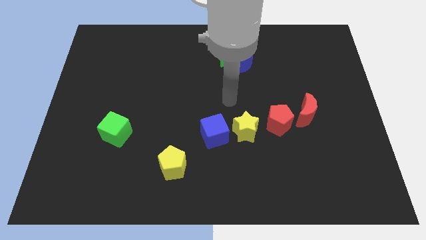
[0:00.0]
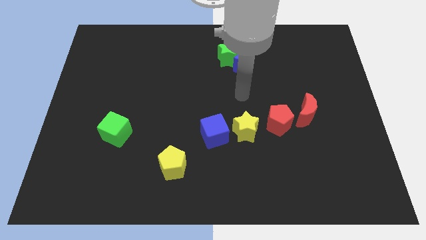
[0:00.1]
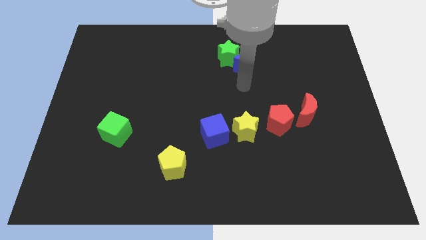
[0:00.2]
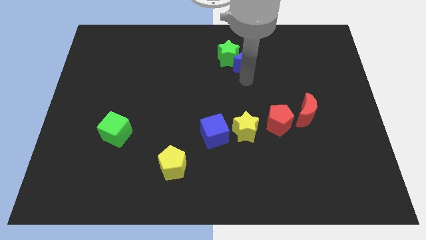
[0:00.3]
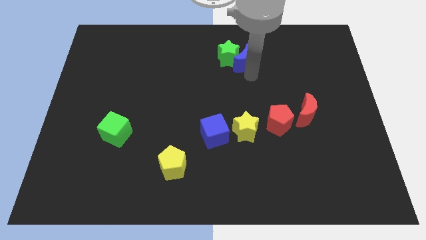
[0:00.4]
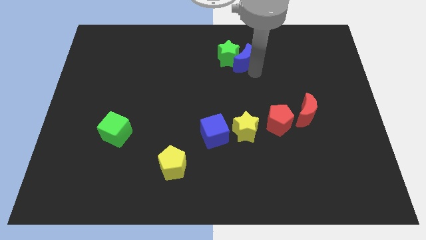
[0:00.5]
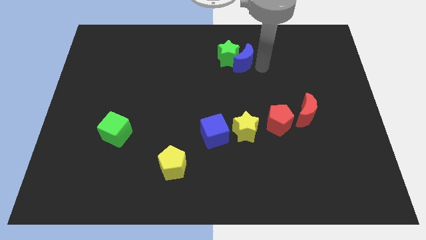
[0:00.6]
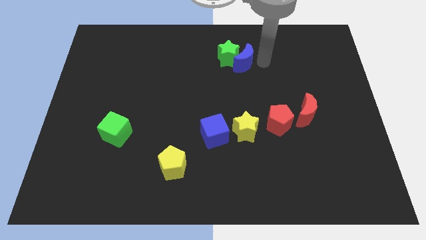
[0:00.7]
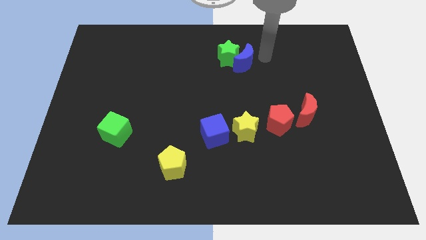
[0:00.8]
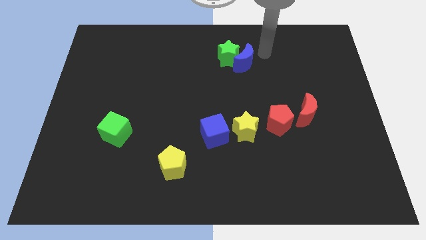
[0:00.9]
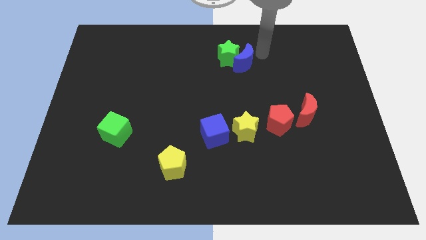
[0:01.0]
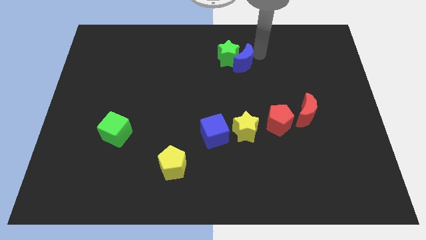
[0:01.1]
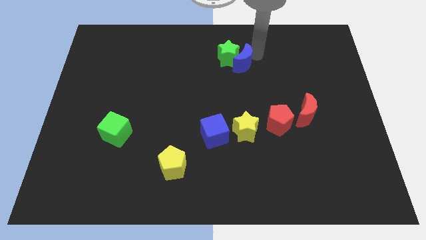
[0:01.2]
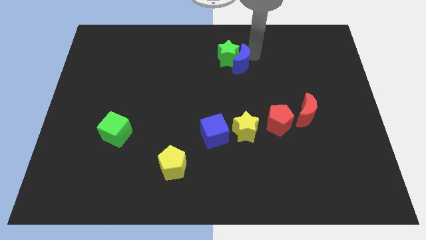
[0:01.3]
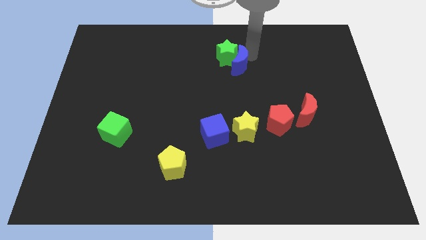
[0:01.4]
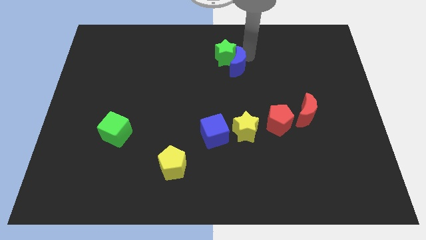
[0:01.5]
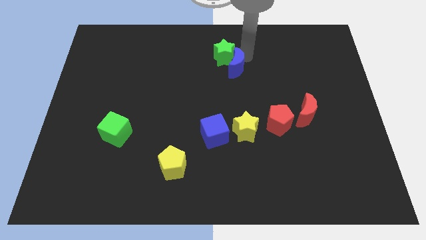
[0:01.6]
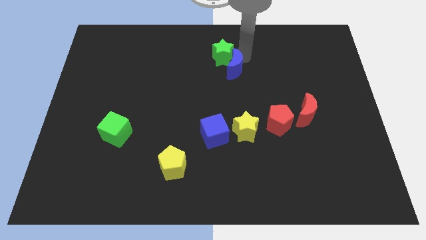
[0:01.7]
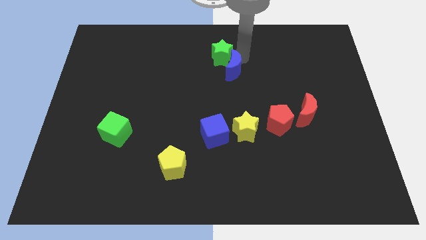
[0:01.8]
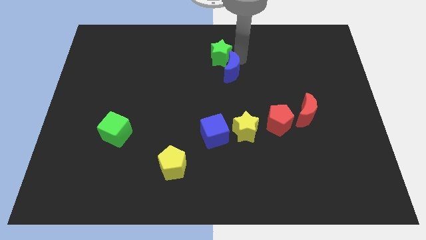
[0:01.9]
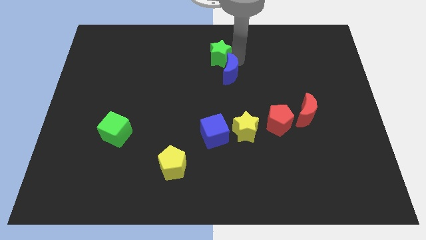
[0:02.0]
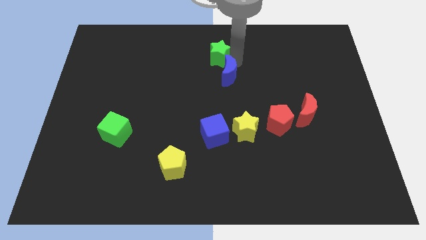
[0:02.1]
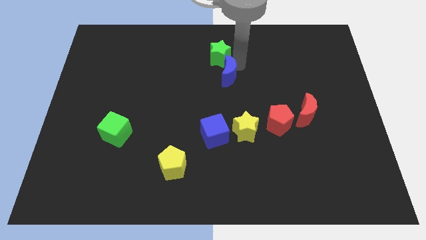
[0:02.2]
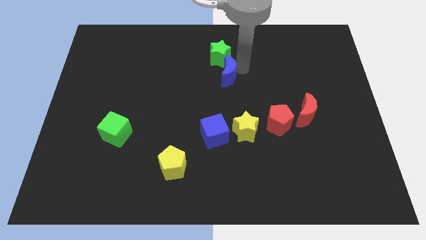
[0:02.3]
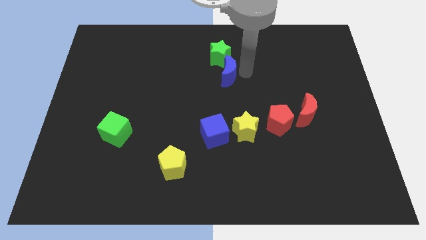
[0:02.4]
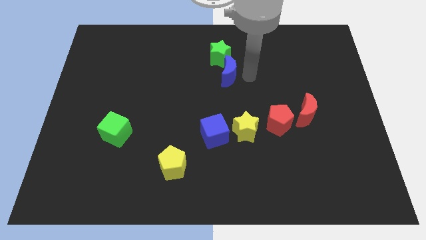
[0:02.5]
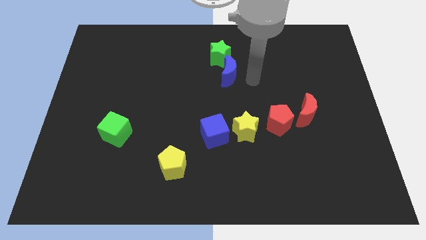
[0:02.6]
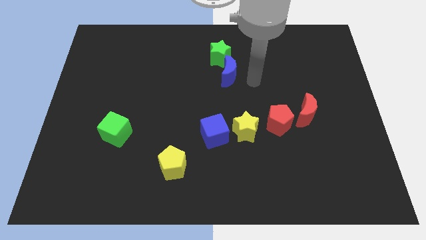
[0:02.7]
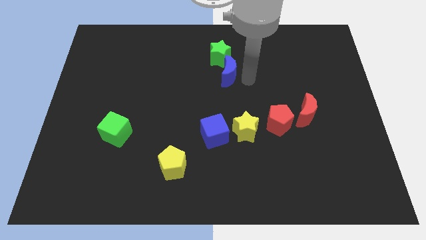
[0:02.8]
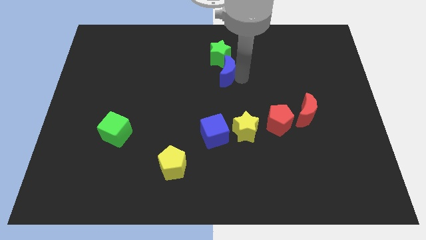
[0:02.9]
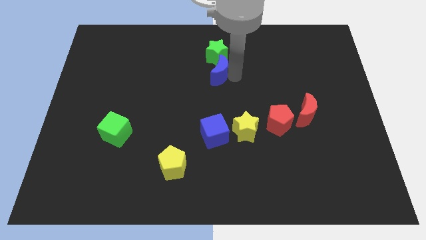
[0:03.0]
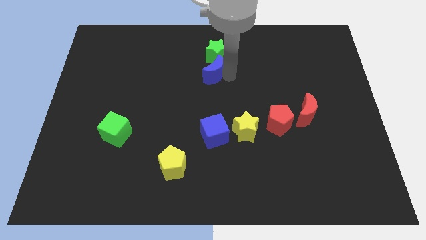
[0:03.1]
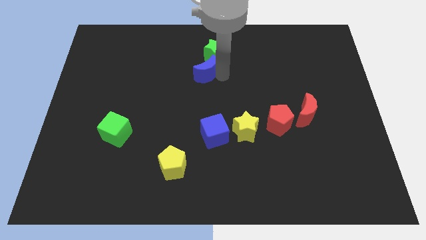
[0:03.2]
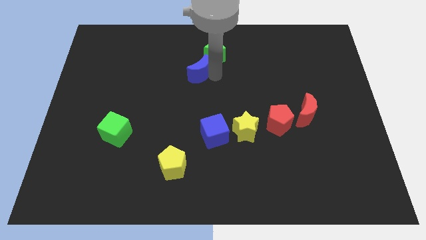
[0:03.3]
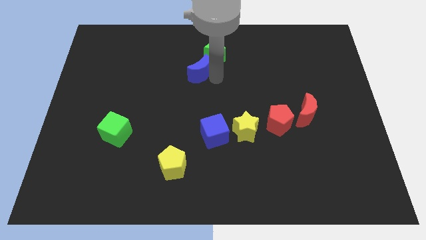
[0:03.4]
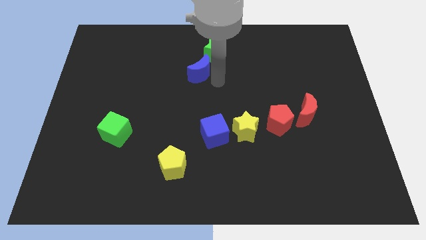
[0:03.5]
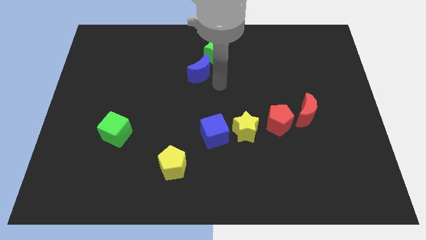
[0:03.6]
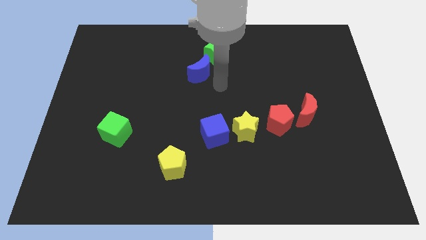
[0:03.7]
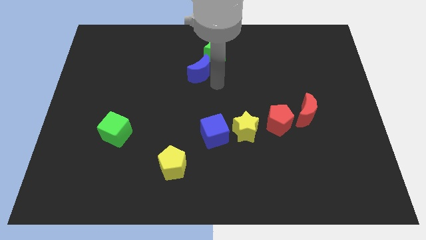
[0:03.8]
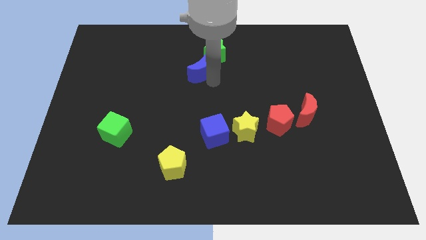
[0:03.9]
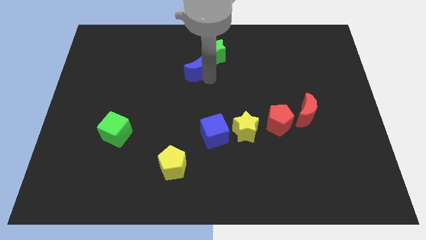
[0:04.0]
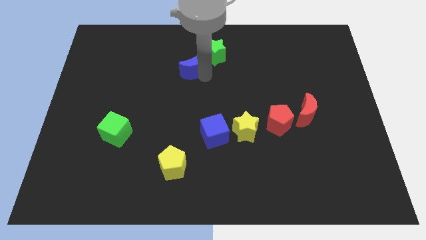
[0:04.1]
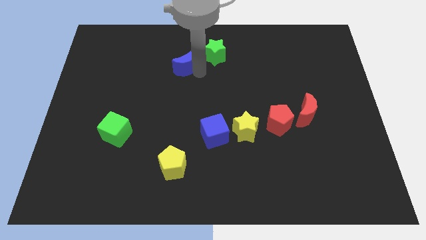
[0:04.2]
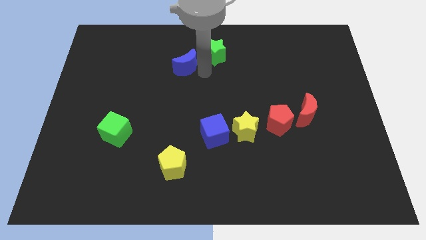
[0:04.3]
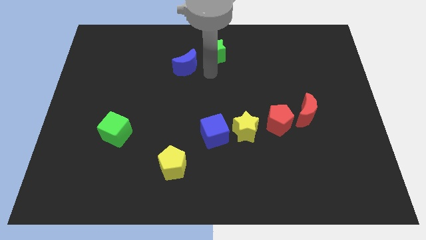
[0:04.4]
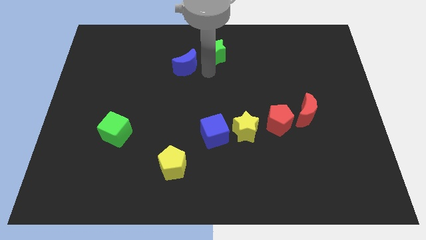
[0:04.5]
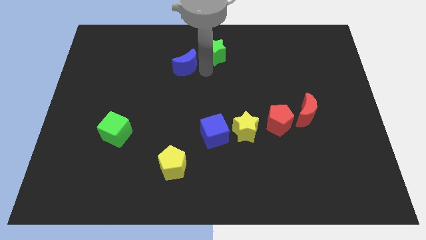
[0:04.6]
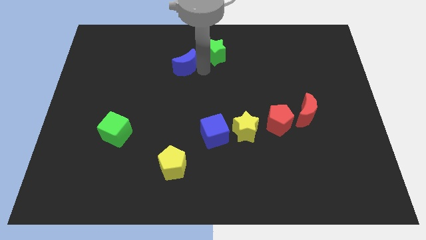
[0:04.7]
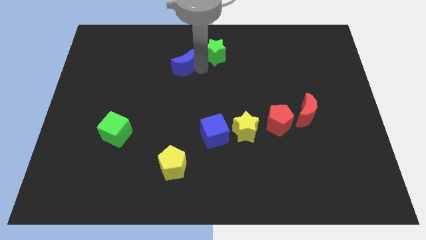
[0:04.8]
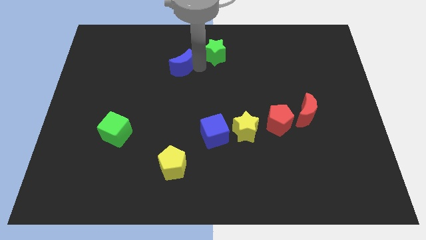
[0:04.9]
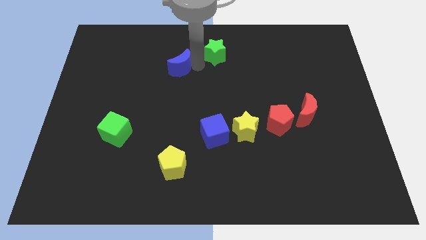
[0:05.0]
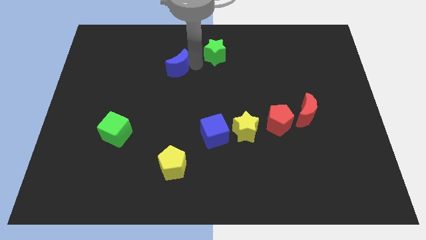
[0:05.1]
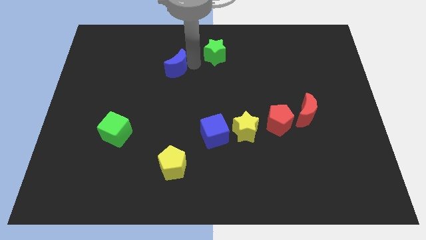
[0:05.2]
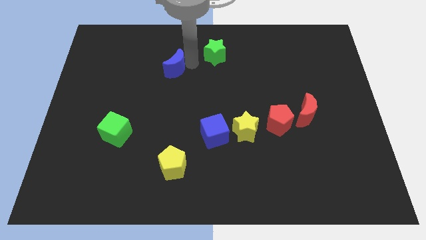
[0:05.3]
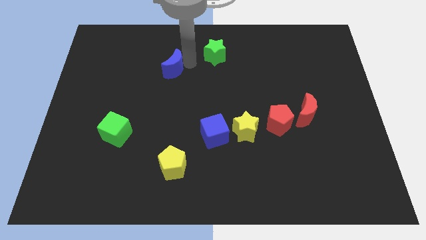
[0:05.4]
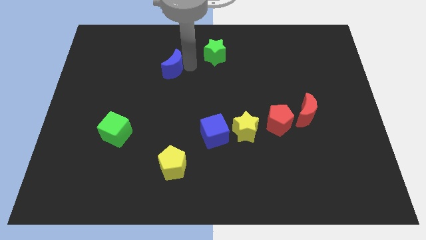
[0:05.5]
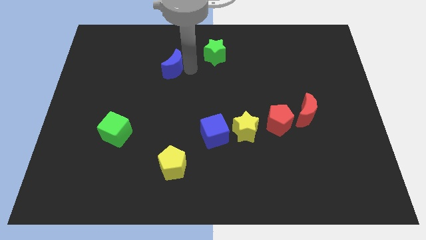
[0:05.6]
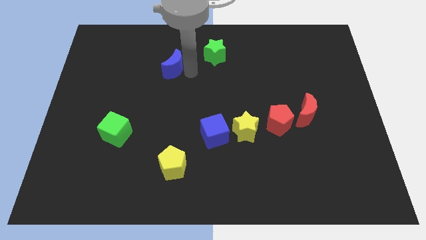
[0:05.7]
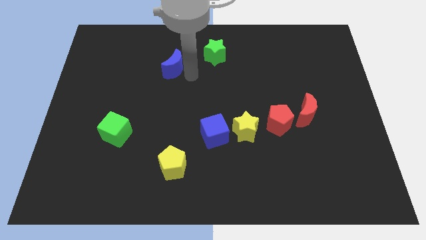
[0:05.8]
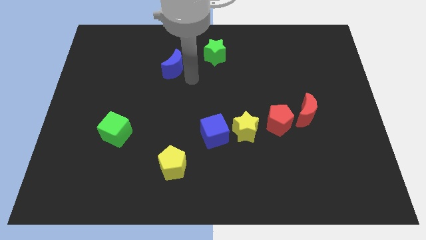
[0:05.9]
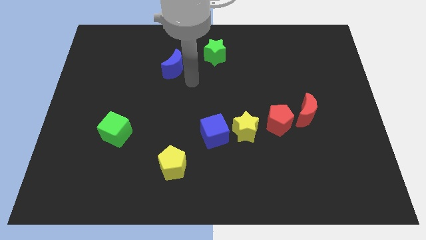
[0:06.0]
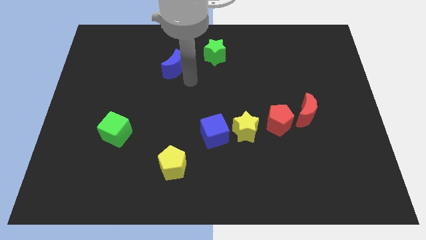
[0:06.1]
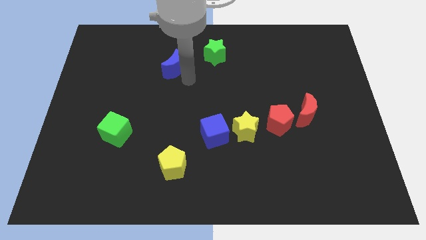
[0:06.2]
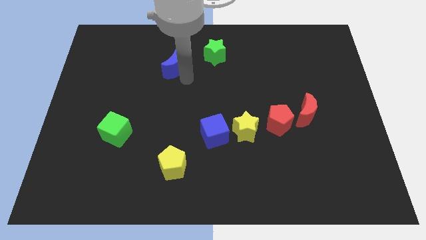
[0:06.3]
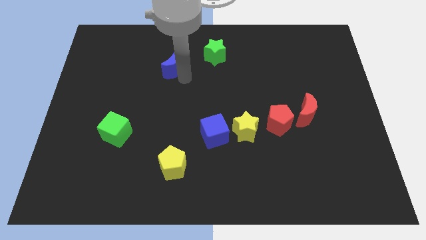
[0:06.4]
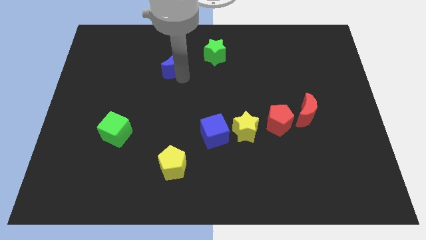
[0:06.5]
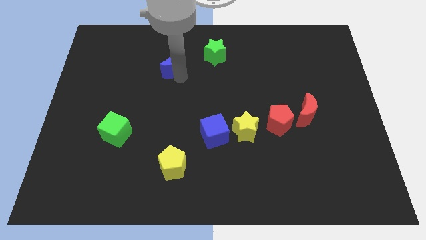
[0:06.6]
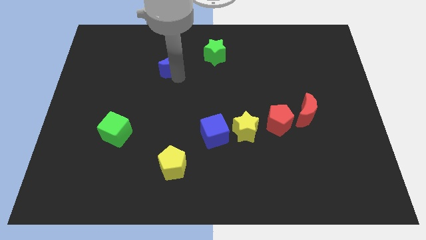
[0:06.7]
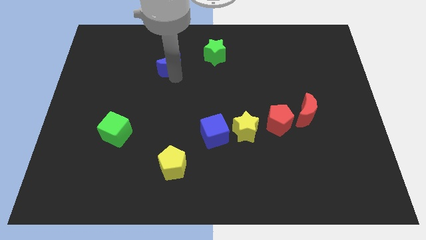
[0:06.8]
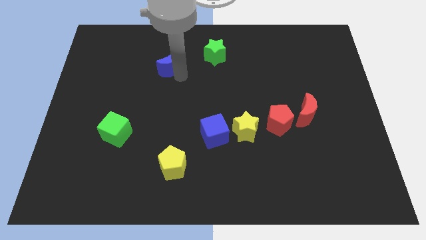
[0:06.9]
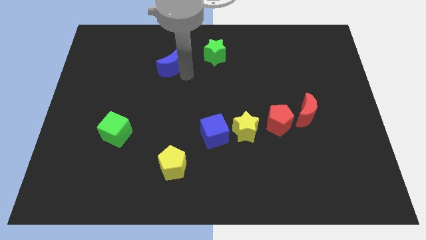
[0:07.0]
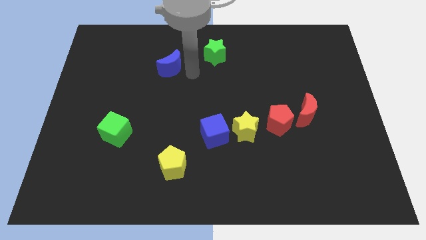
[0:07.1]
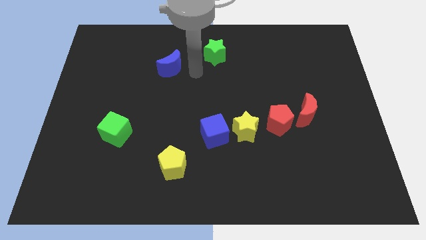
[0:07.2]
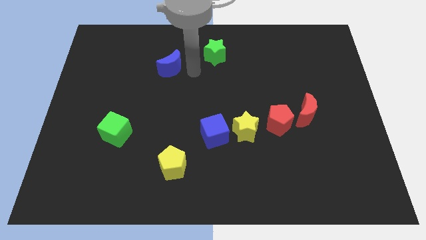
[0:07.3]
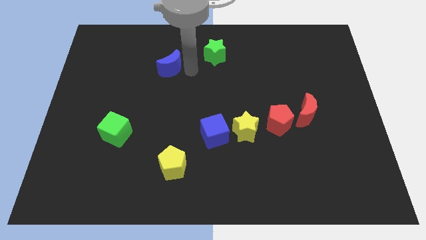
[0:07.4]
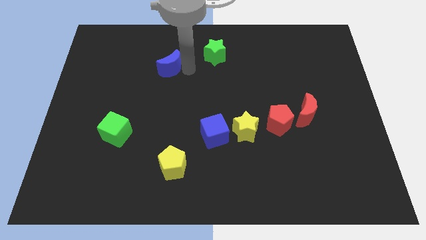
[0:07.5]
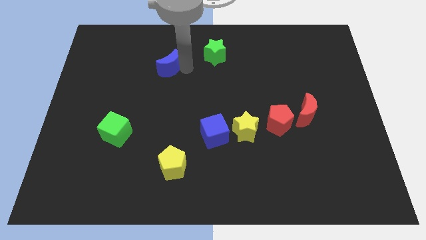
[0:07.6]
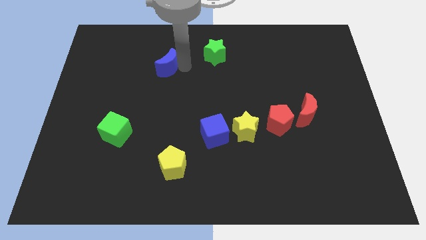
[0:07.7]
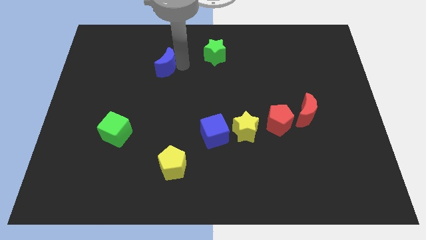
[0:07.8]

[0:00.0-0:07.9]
move the blue moon to the left

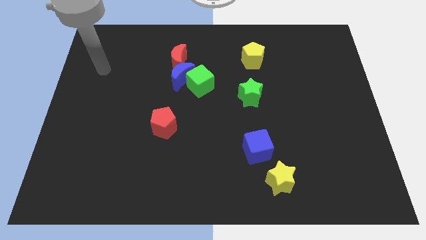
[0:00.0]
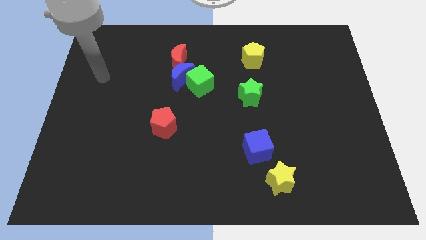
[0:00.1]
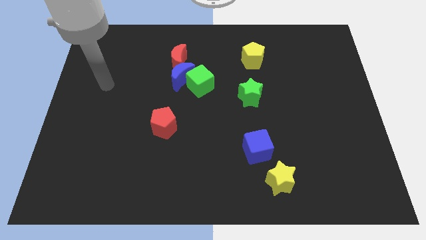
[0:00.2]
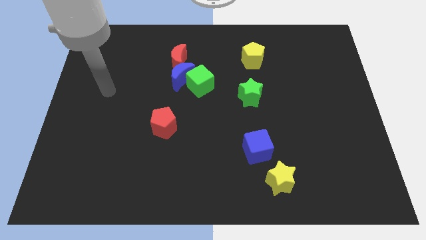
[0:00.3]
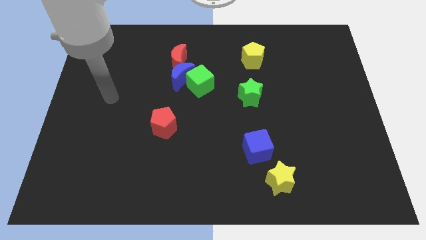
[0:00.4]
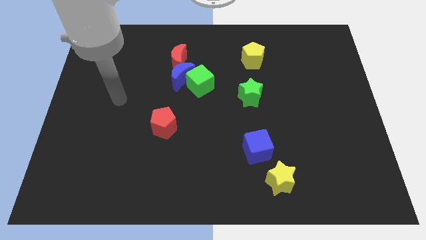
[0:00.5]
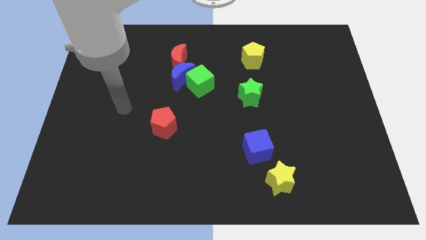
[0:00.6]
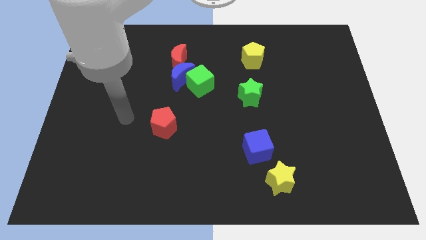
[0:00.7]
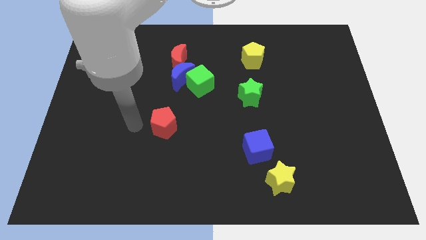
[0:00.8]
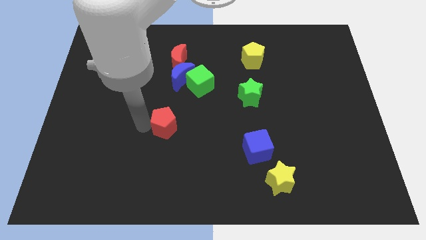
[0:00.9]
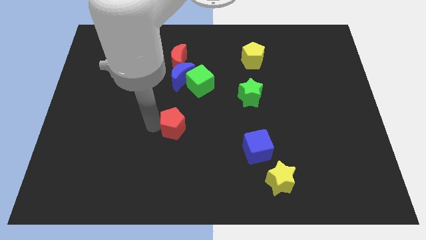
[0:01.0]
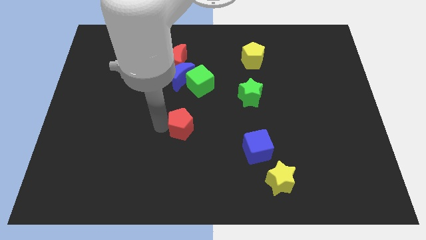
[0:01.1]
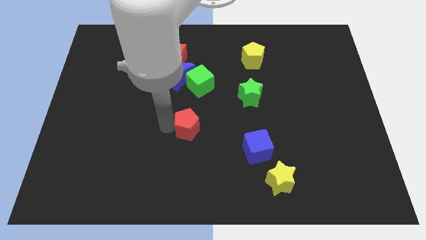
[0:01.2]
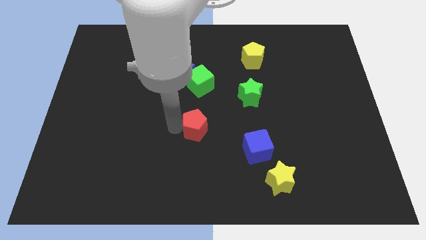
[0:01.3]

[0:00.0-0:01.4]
move the red pentagon slightly right
